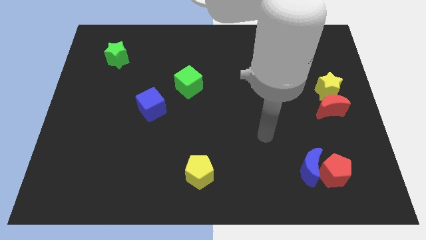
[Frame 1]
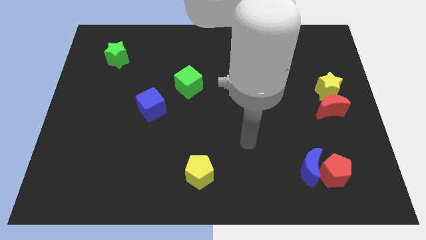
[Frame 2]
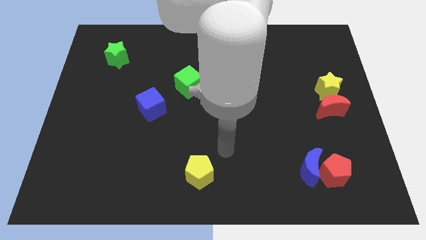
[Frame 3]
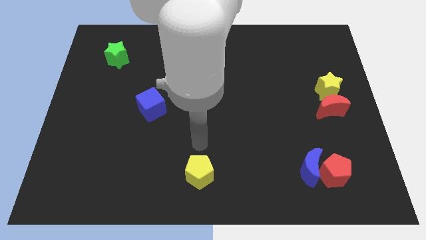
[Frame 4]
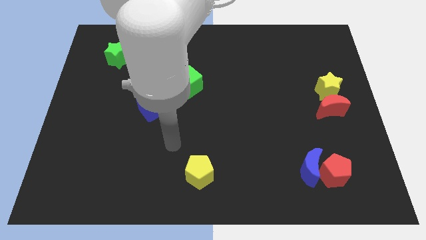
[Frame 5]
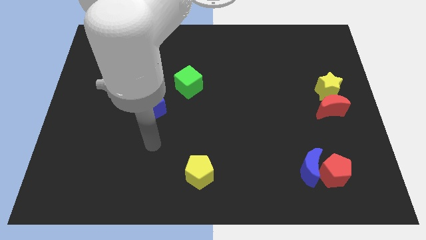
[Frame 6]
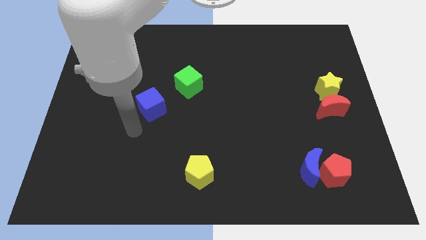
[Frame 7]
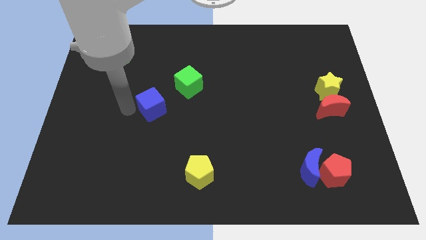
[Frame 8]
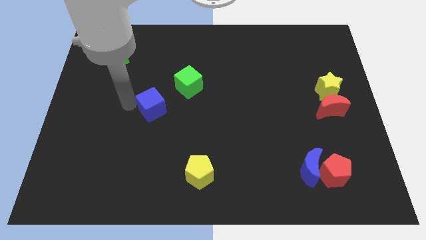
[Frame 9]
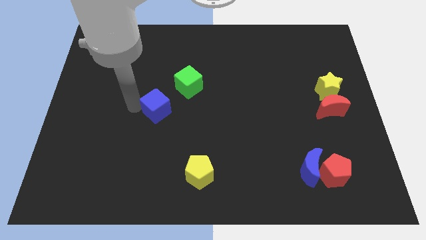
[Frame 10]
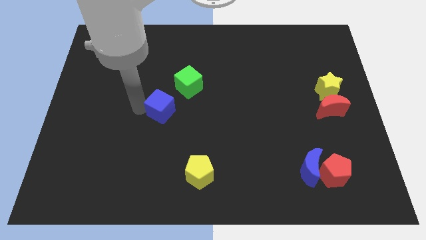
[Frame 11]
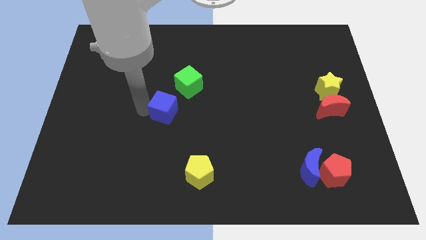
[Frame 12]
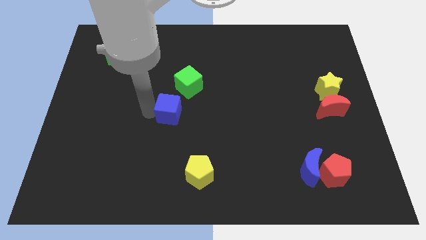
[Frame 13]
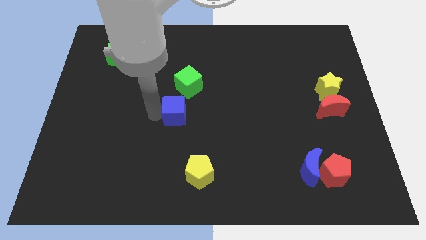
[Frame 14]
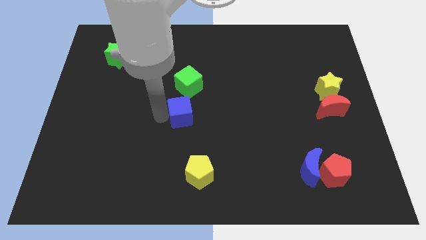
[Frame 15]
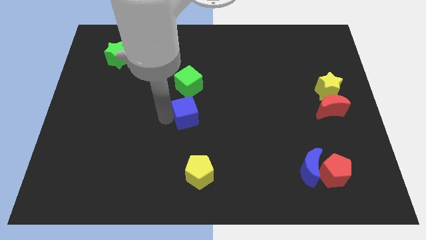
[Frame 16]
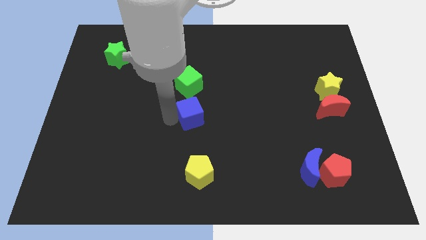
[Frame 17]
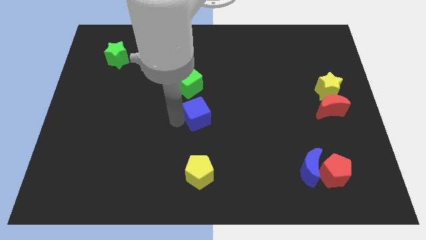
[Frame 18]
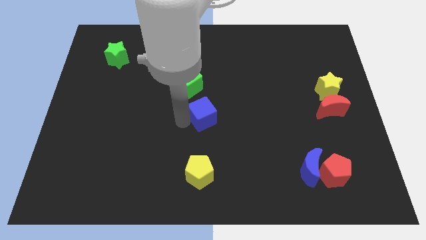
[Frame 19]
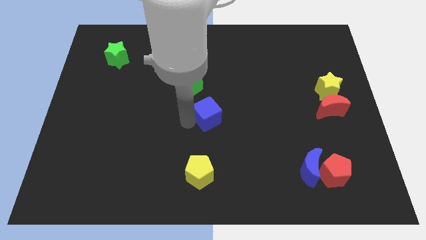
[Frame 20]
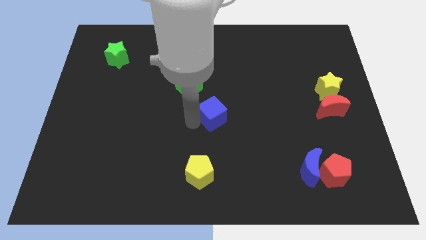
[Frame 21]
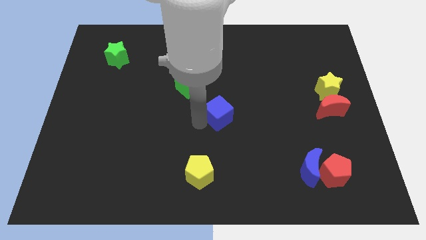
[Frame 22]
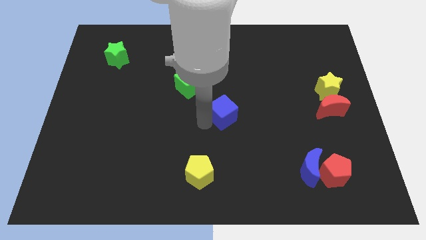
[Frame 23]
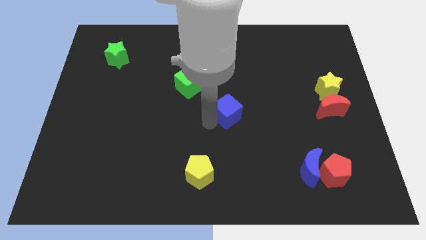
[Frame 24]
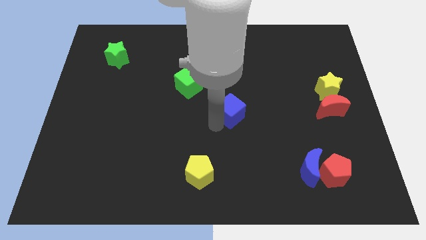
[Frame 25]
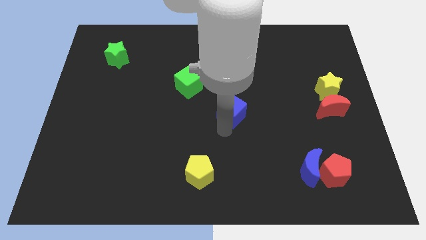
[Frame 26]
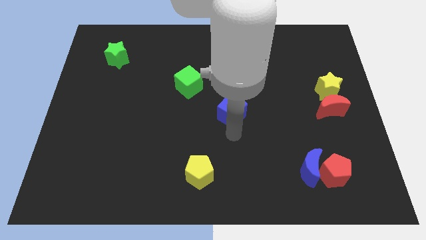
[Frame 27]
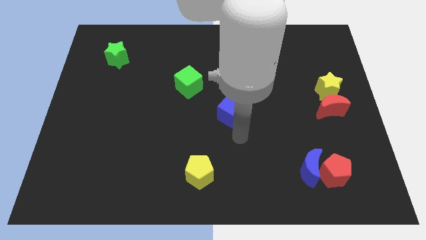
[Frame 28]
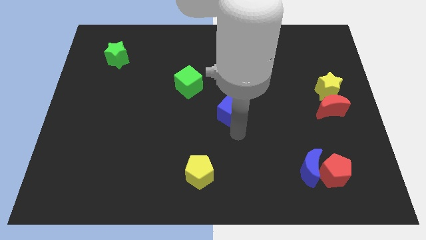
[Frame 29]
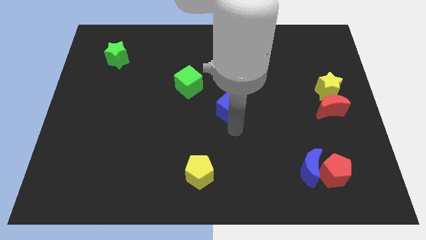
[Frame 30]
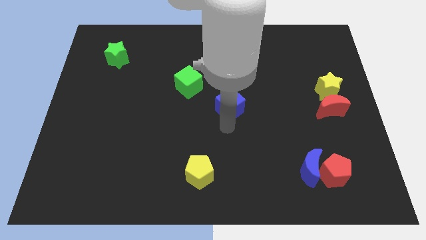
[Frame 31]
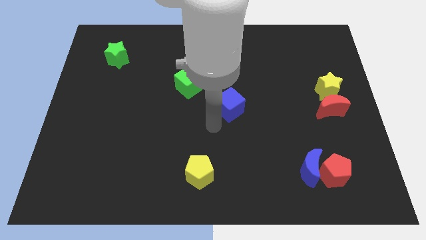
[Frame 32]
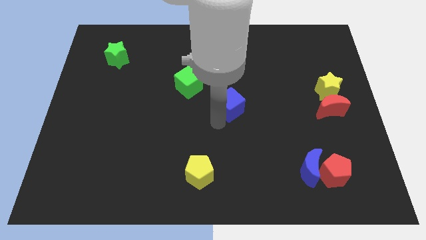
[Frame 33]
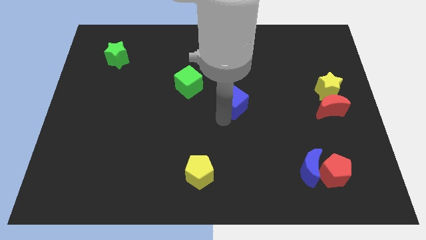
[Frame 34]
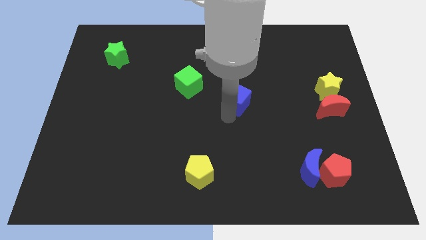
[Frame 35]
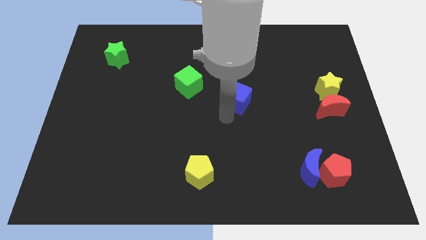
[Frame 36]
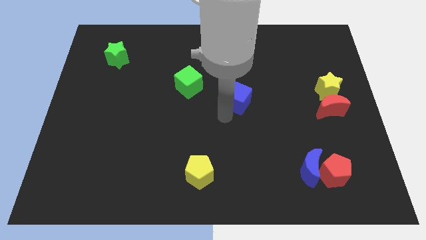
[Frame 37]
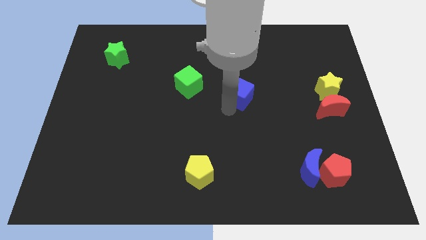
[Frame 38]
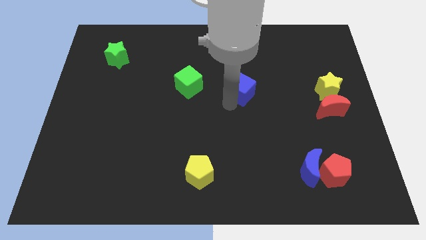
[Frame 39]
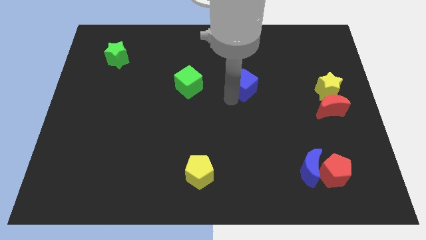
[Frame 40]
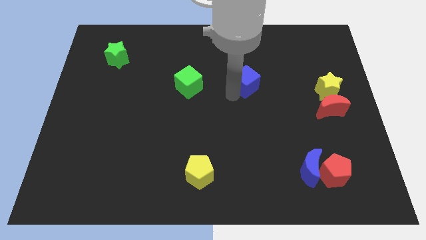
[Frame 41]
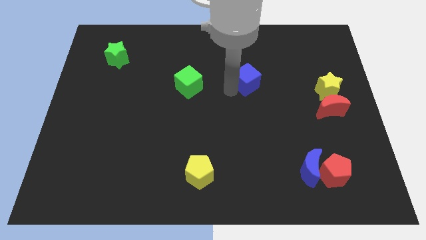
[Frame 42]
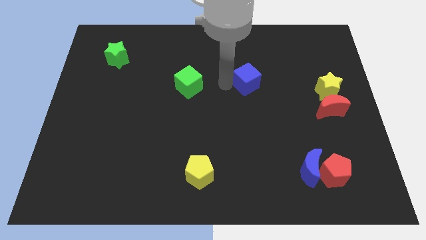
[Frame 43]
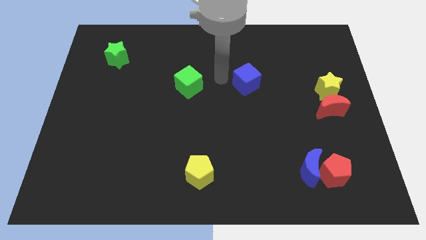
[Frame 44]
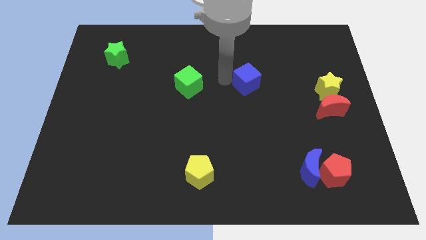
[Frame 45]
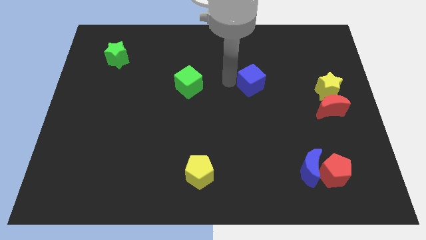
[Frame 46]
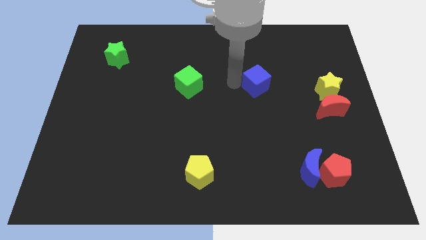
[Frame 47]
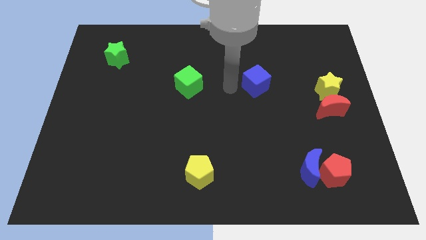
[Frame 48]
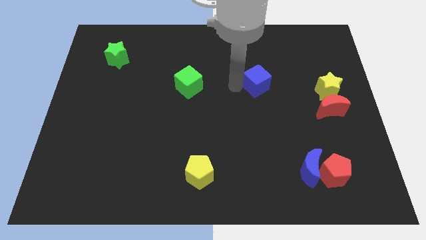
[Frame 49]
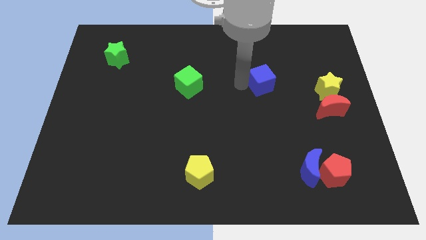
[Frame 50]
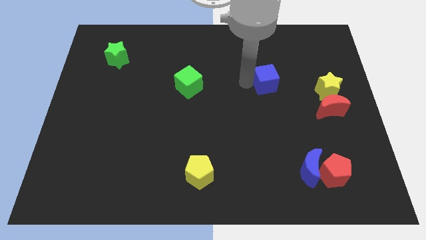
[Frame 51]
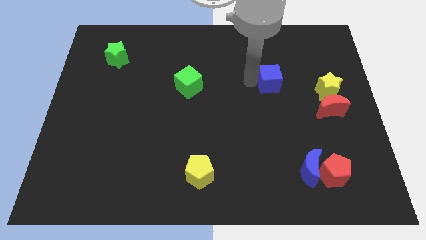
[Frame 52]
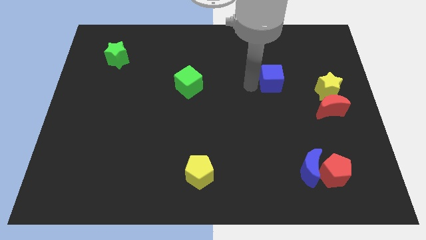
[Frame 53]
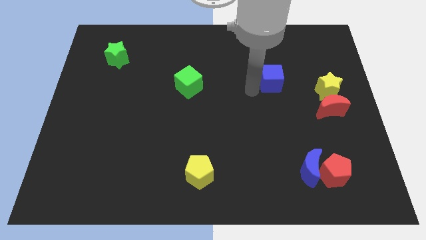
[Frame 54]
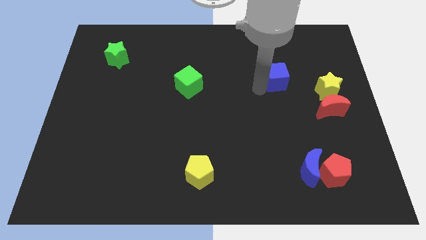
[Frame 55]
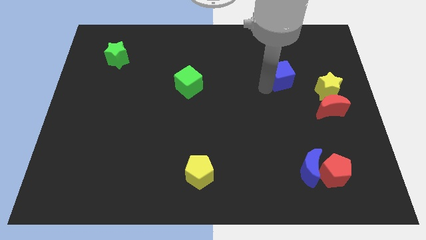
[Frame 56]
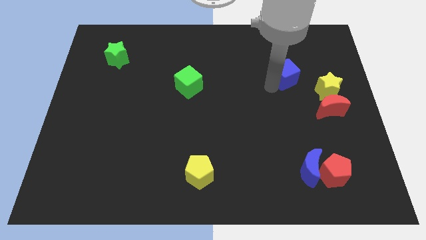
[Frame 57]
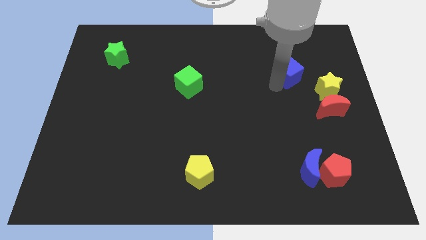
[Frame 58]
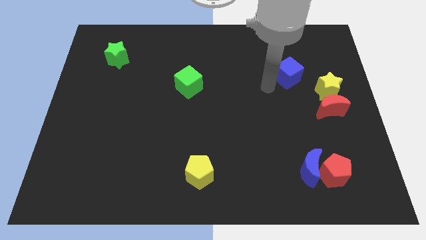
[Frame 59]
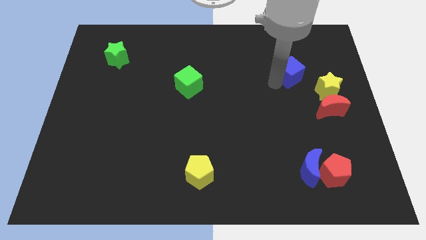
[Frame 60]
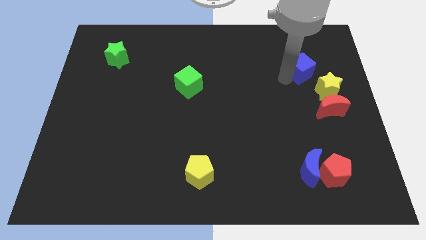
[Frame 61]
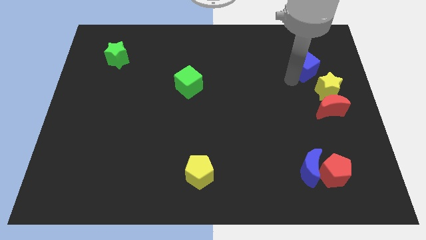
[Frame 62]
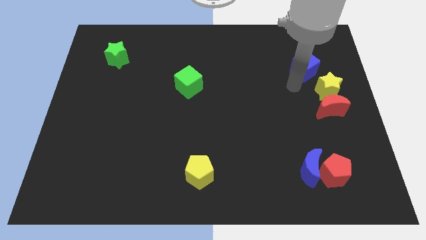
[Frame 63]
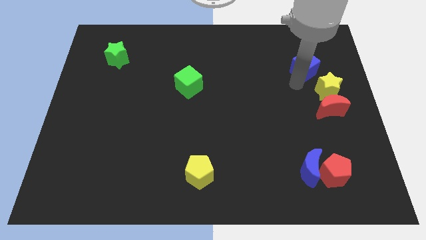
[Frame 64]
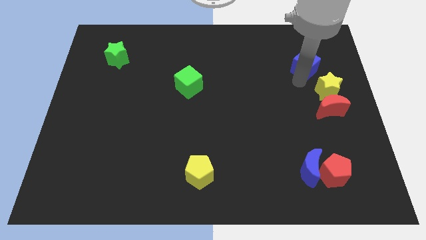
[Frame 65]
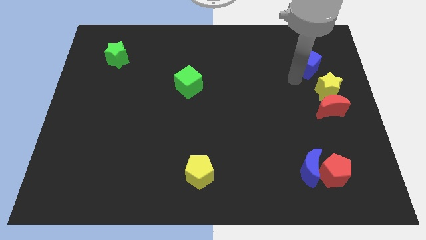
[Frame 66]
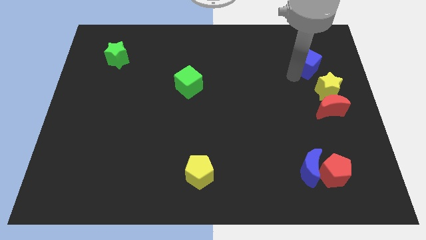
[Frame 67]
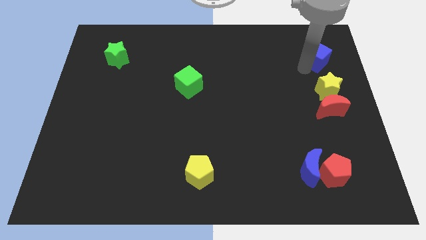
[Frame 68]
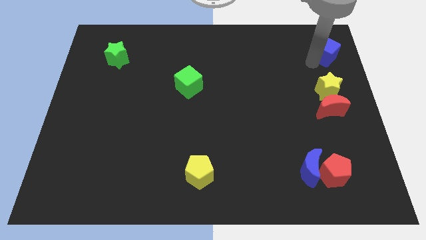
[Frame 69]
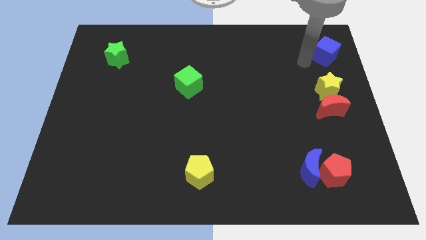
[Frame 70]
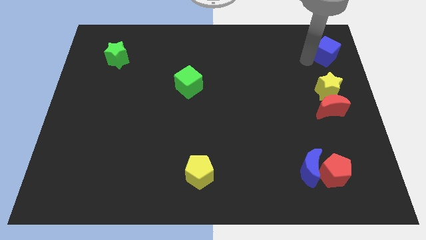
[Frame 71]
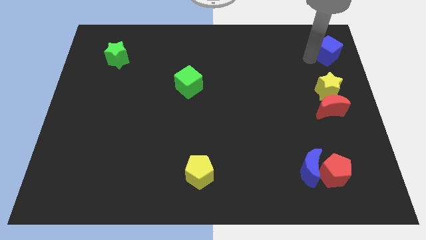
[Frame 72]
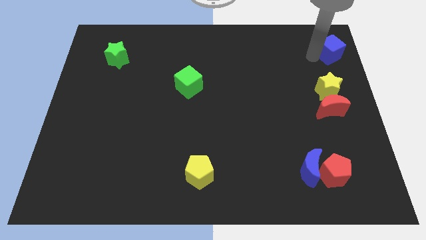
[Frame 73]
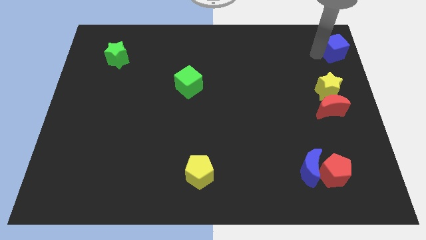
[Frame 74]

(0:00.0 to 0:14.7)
move the blue cube to the top right corner
